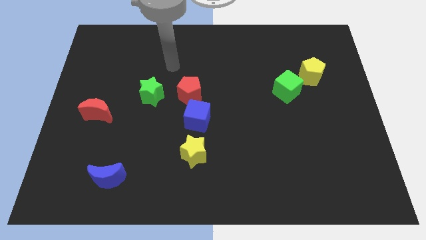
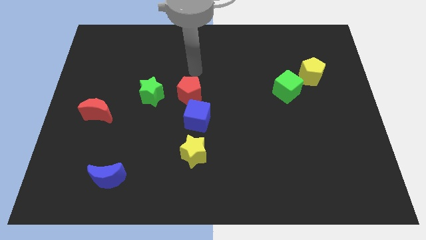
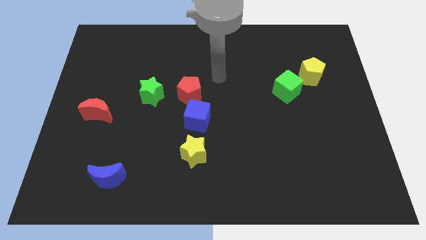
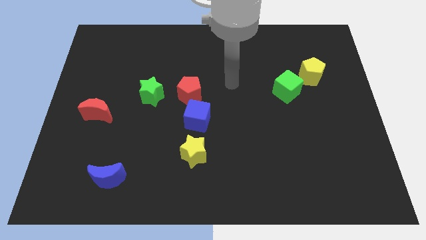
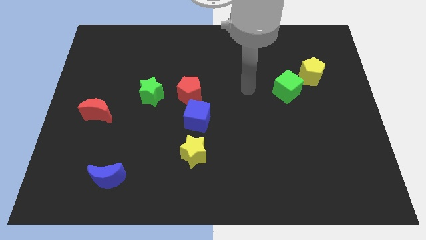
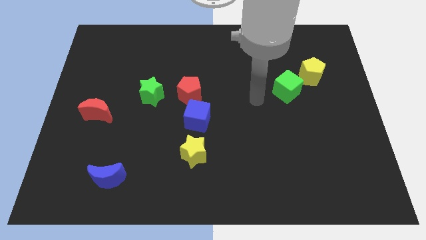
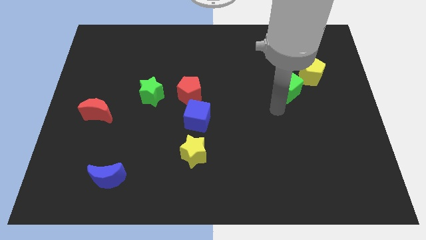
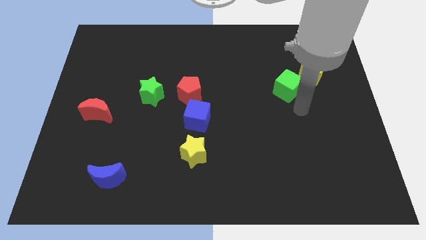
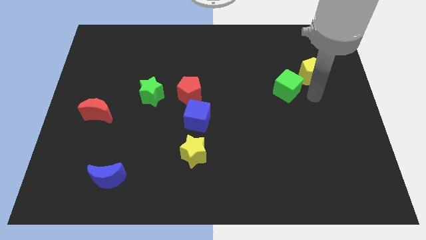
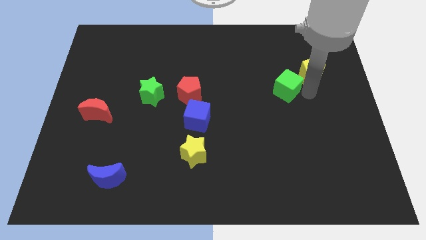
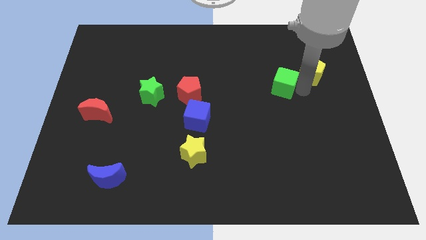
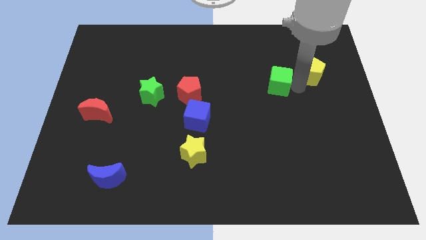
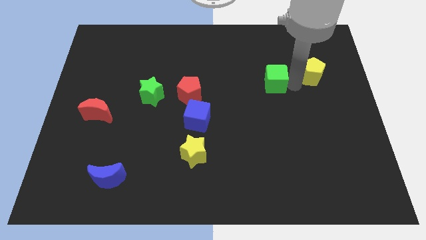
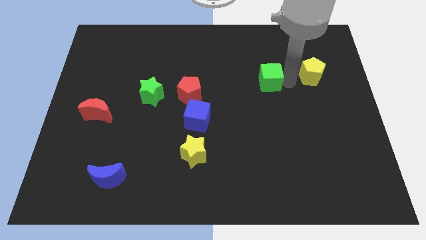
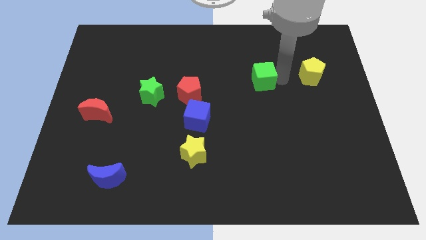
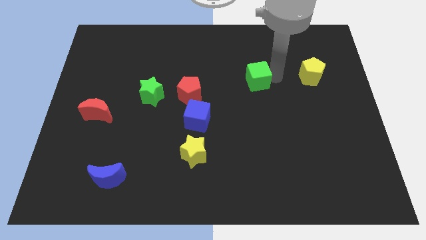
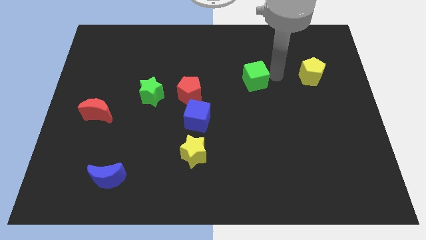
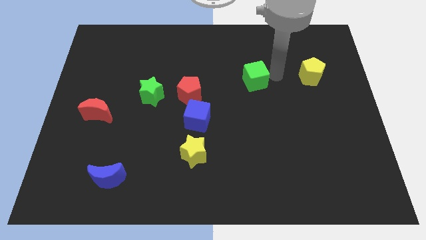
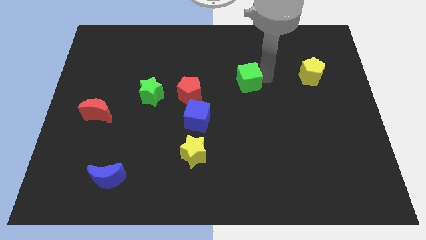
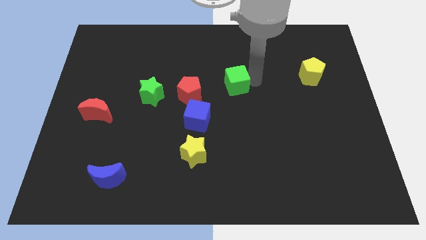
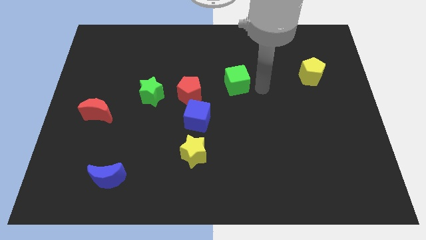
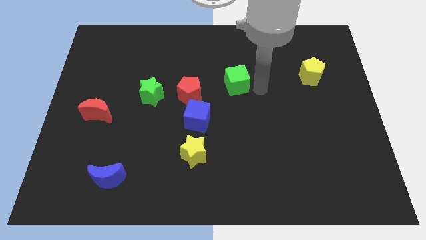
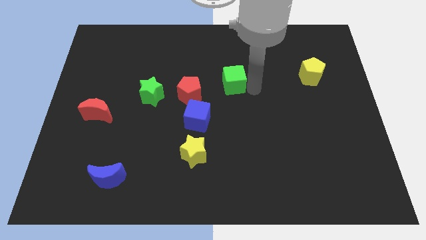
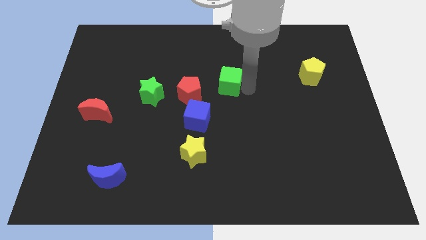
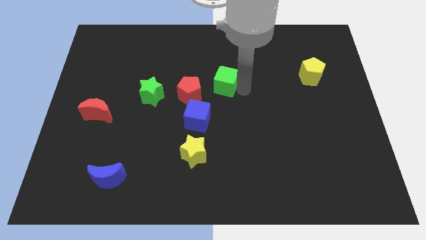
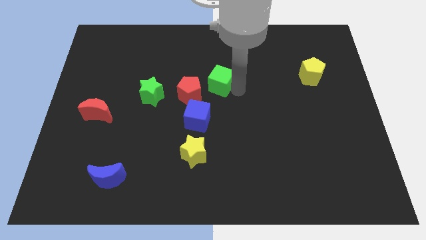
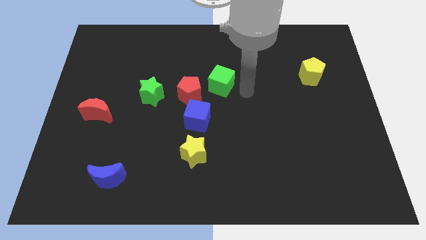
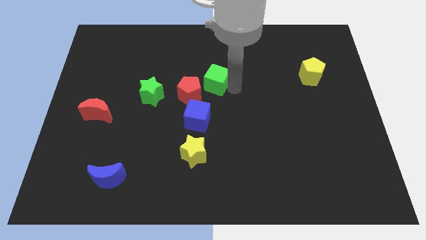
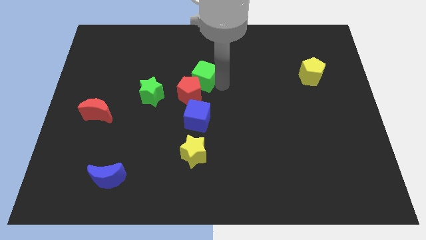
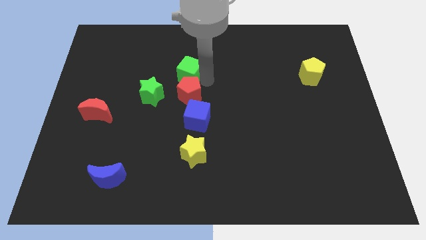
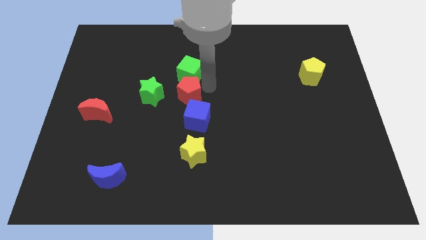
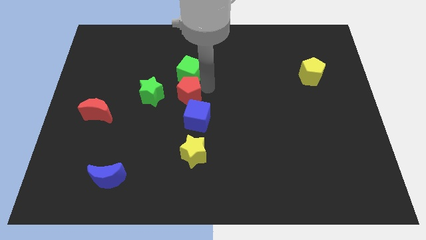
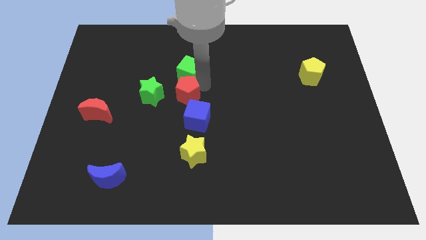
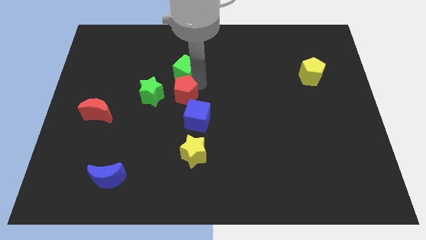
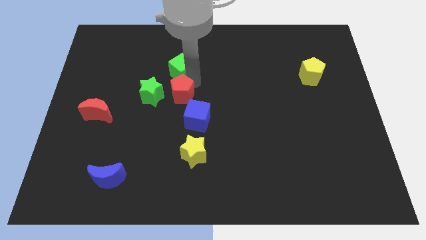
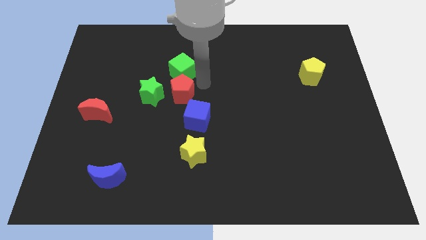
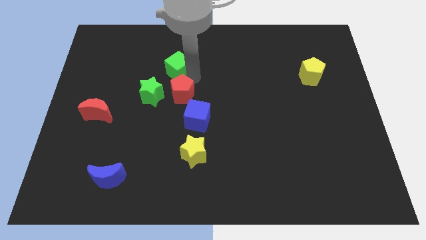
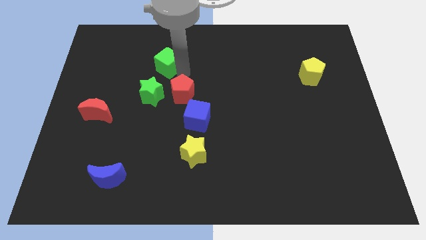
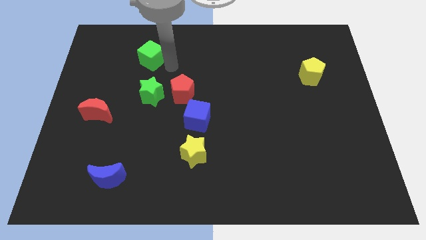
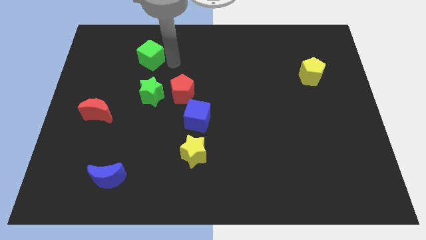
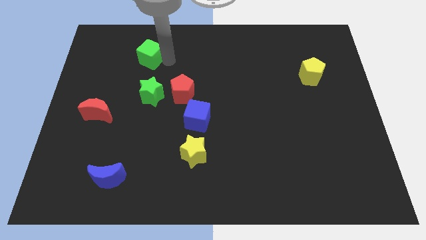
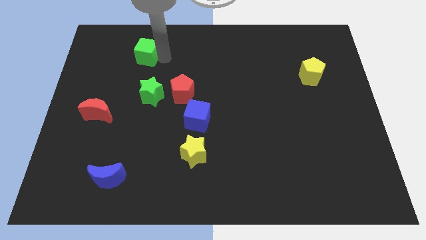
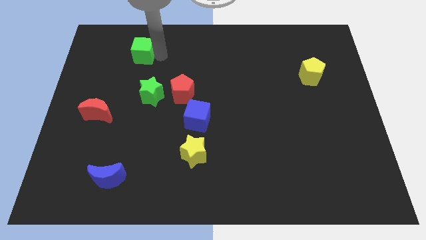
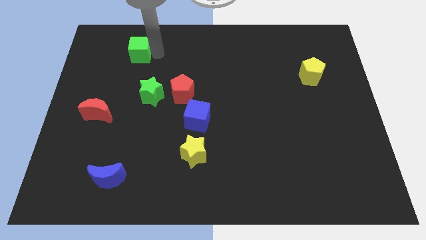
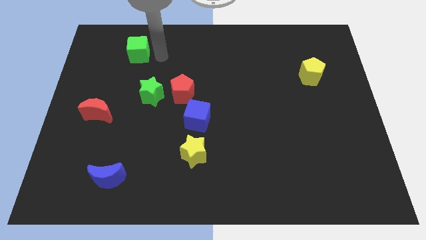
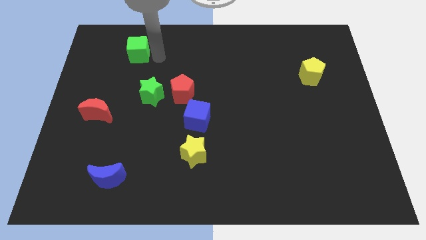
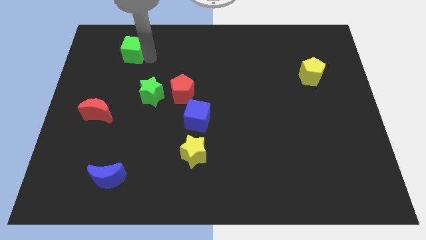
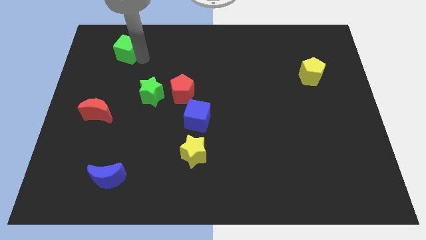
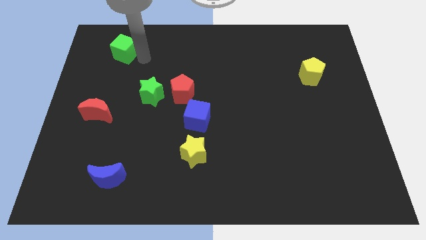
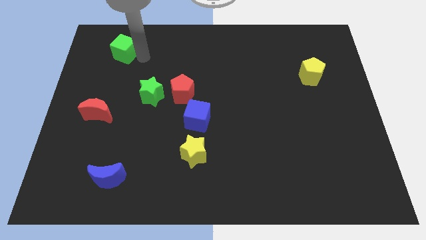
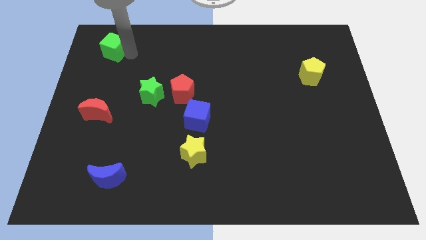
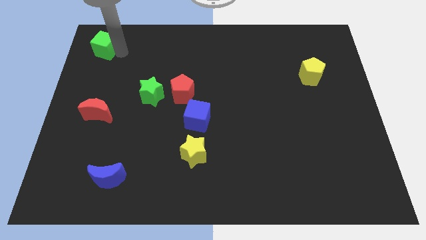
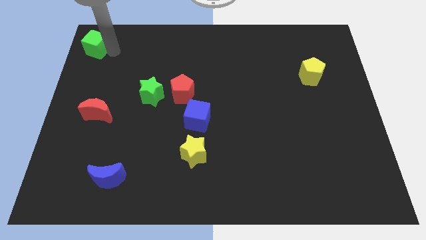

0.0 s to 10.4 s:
slide the green cube to the top left of the board

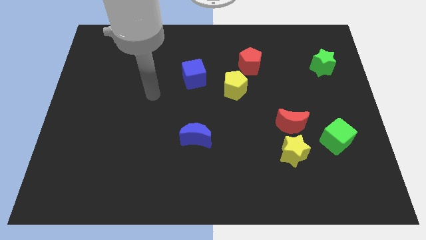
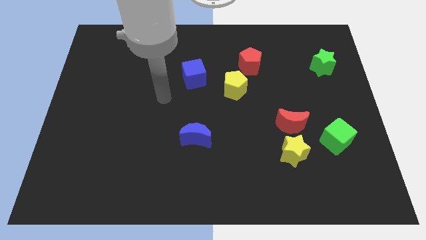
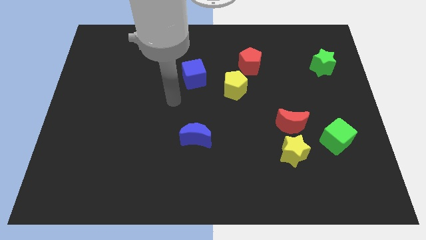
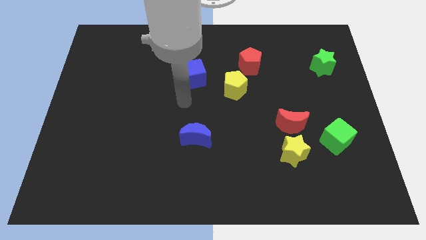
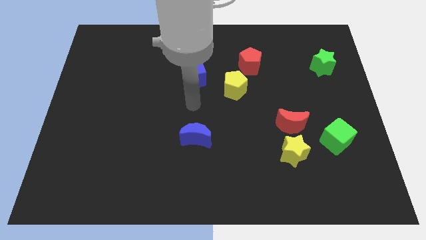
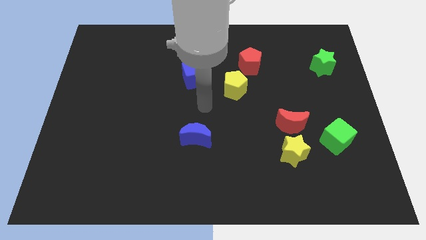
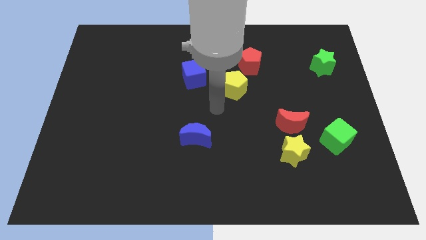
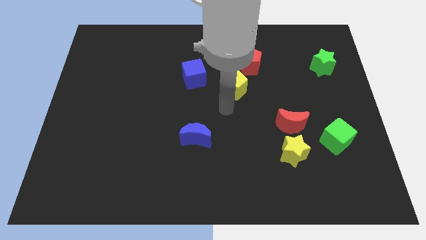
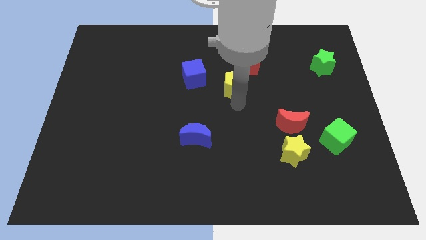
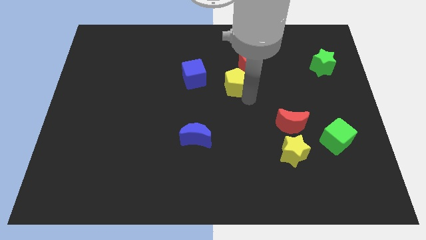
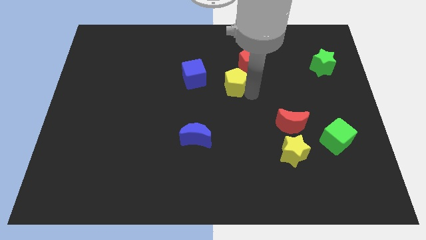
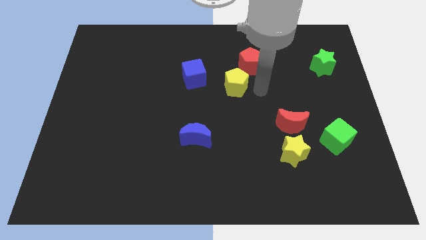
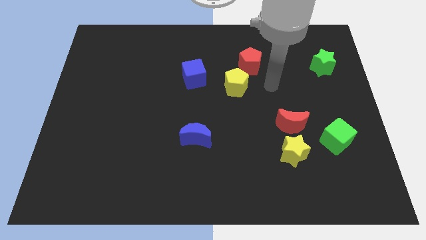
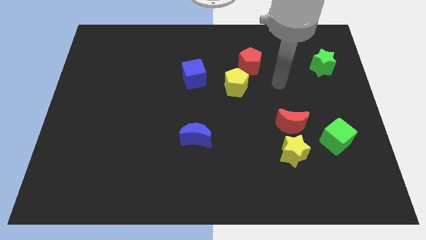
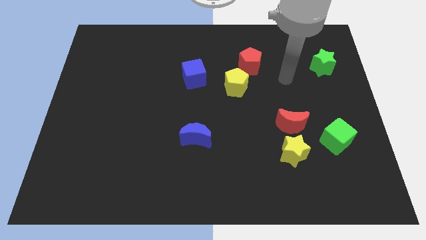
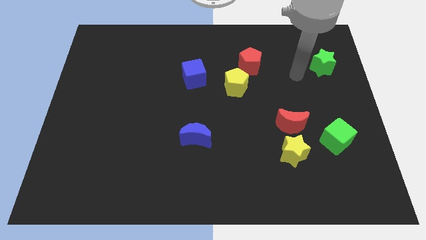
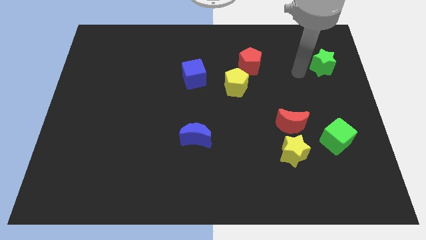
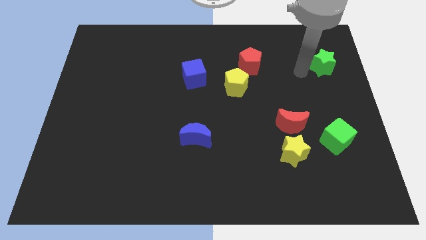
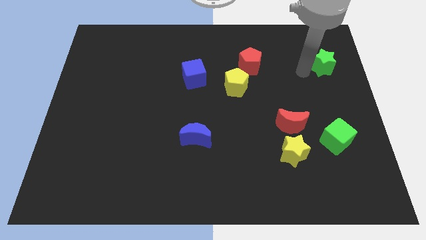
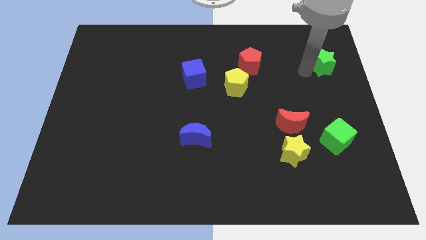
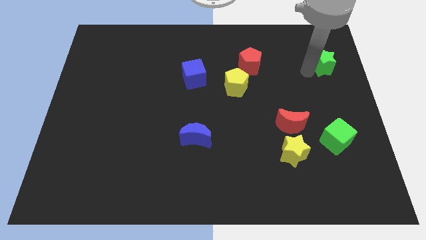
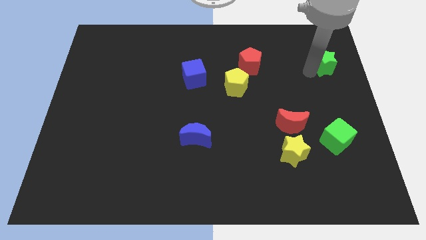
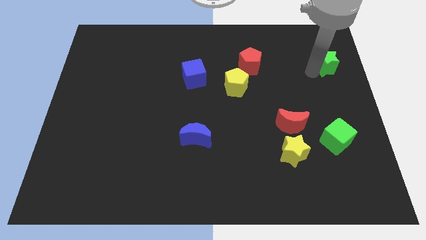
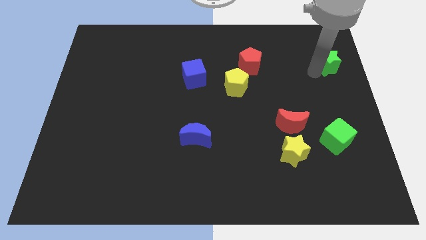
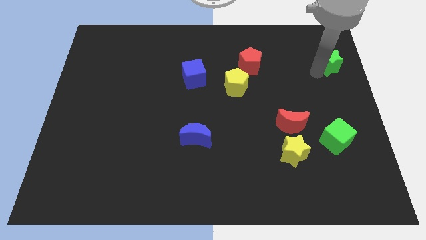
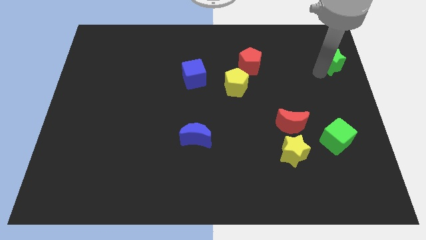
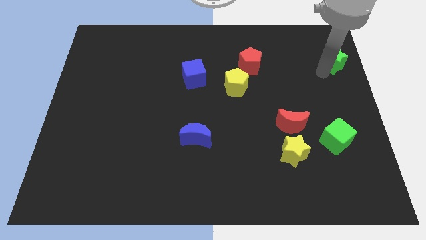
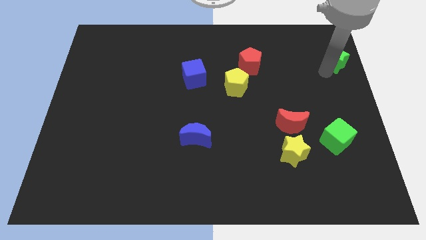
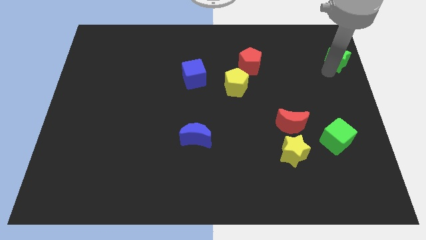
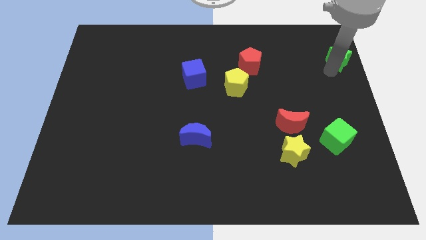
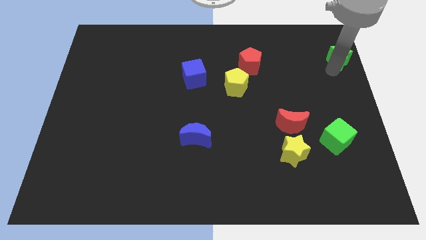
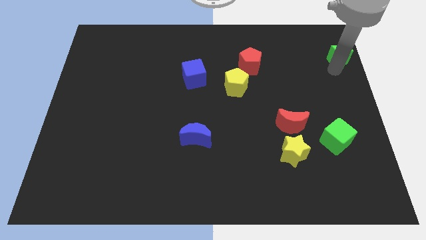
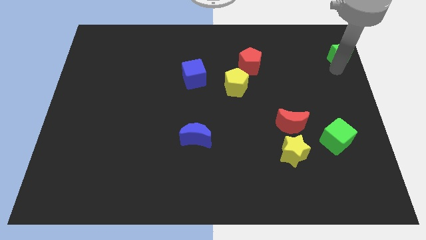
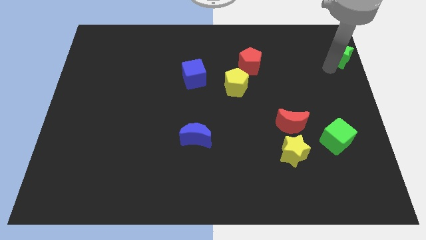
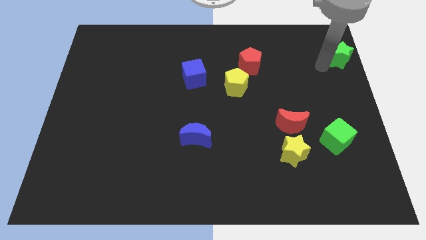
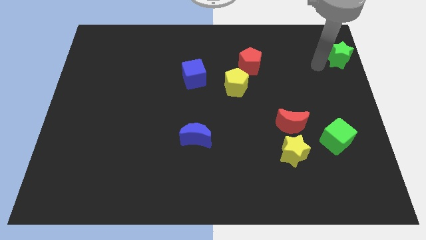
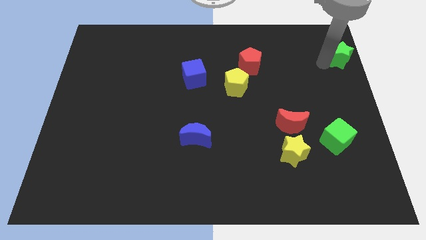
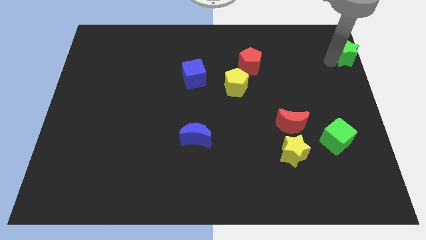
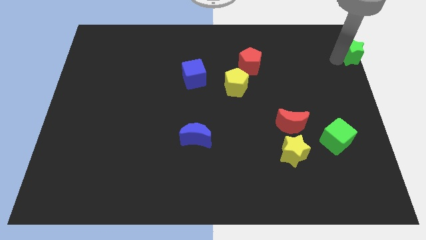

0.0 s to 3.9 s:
slide the green star to the top right of the board
